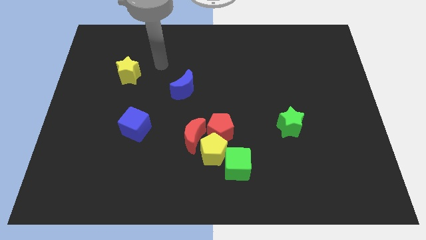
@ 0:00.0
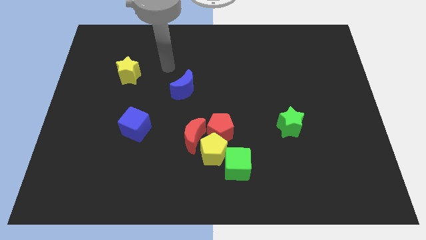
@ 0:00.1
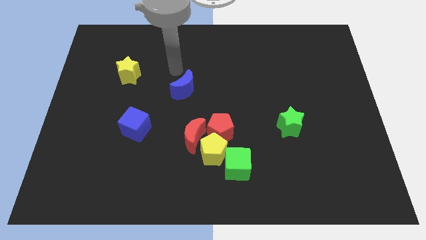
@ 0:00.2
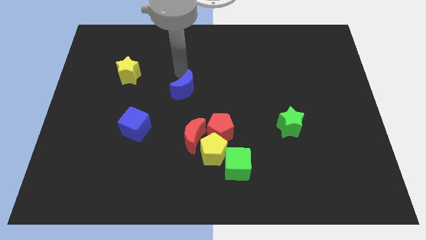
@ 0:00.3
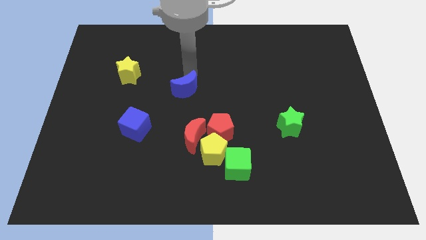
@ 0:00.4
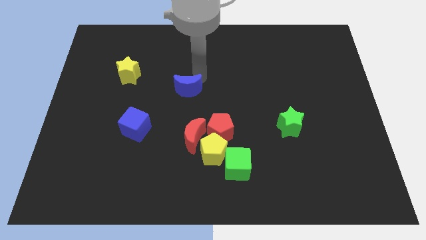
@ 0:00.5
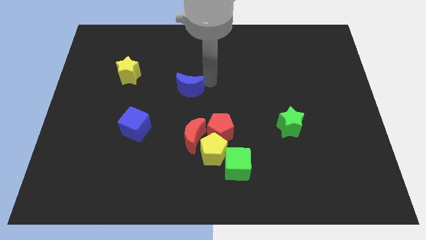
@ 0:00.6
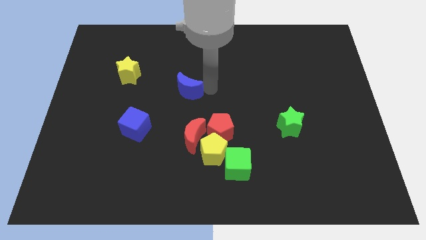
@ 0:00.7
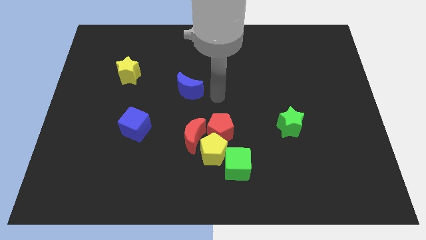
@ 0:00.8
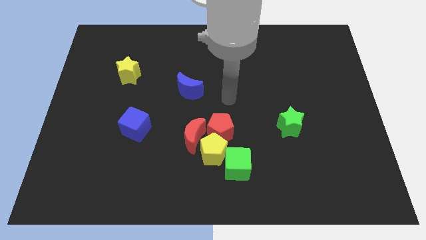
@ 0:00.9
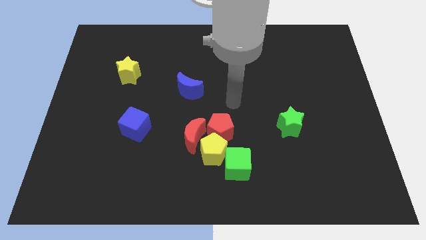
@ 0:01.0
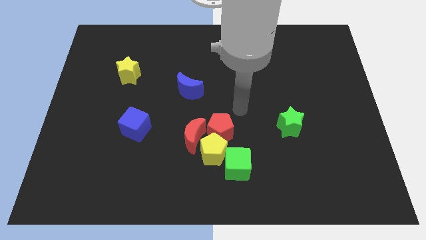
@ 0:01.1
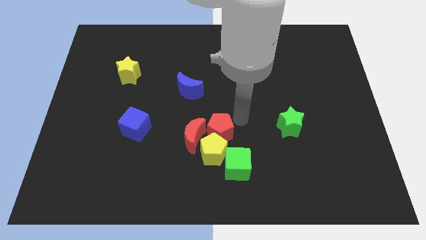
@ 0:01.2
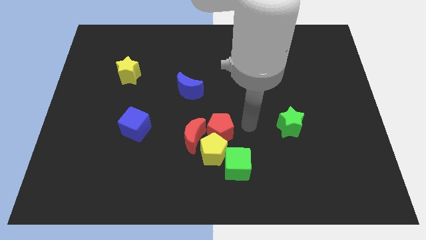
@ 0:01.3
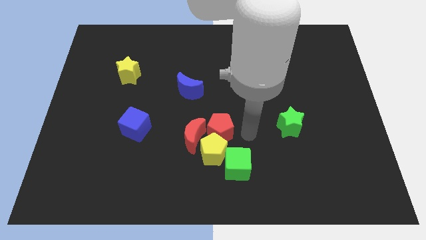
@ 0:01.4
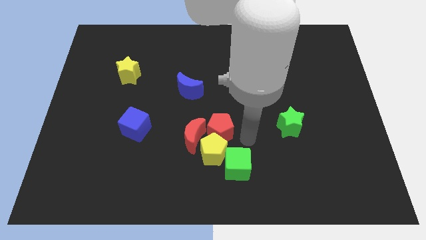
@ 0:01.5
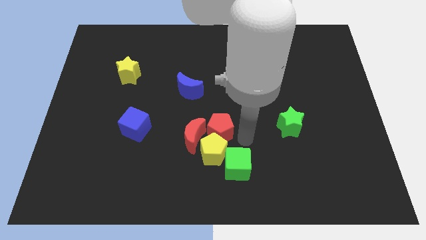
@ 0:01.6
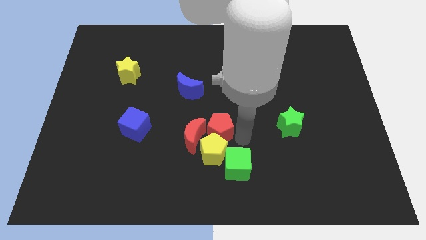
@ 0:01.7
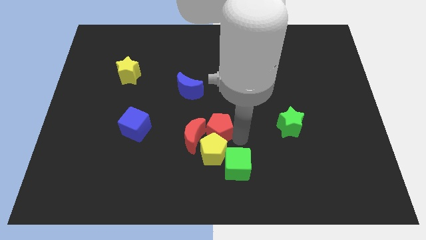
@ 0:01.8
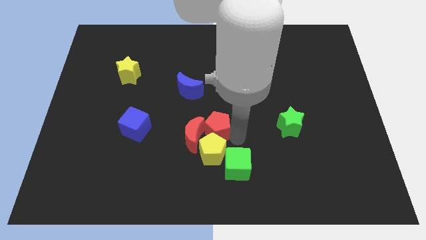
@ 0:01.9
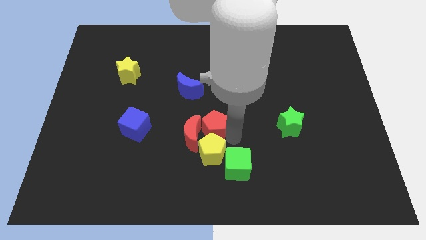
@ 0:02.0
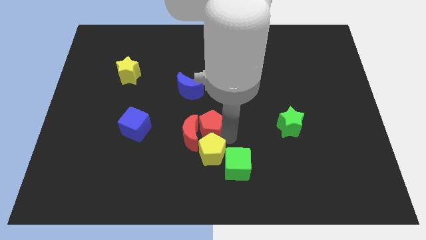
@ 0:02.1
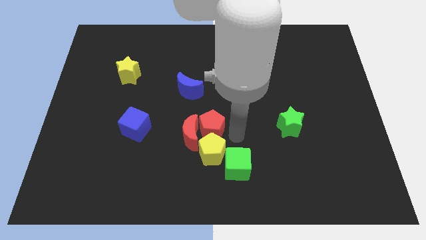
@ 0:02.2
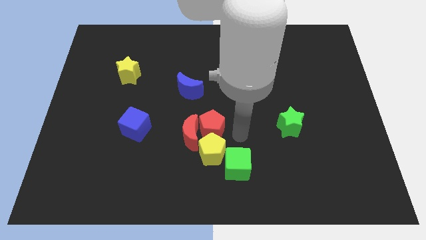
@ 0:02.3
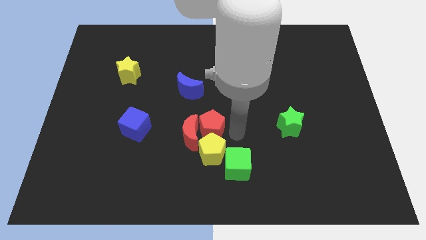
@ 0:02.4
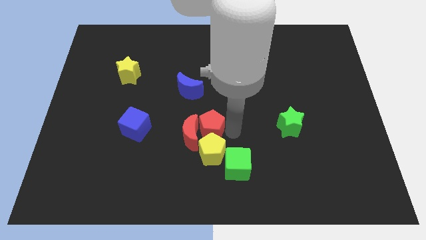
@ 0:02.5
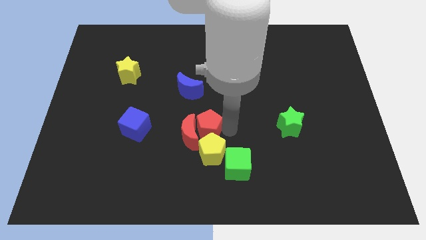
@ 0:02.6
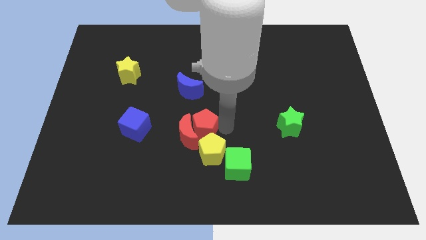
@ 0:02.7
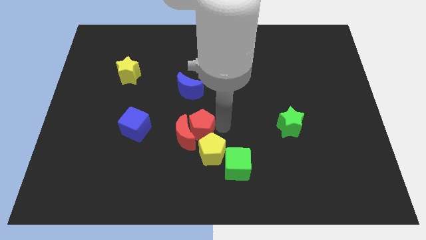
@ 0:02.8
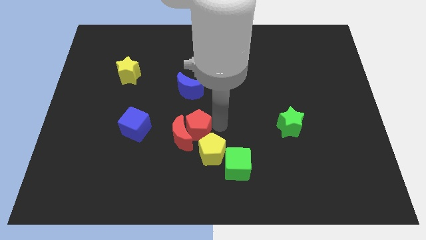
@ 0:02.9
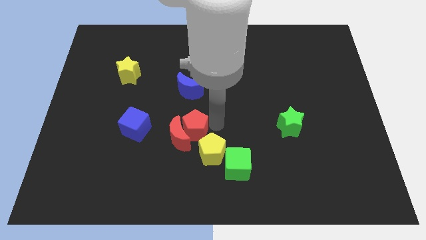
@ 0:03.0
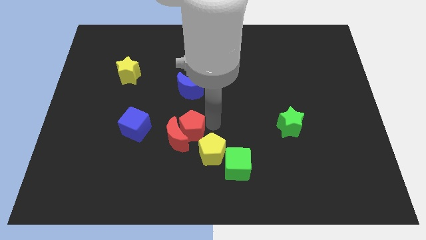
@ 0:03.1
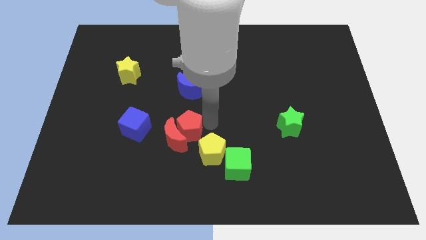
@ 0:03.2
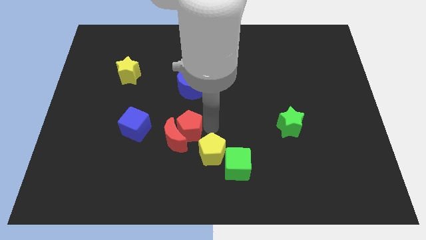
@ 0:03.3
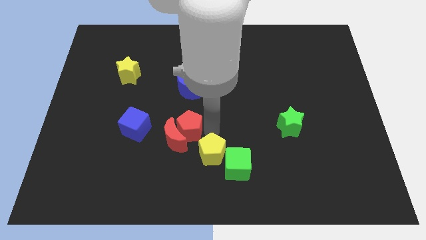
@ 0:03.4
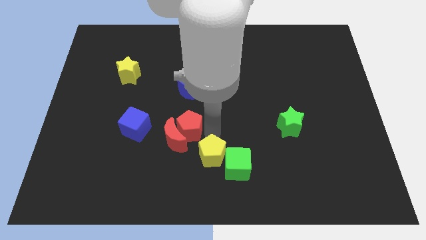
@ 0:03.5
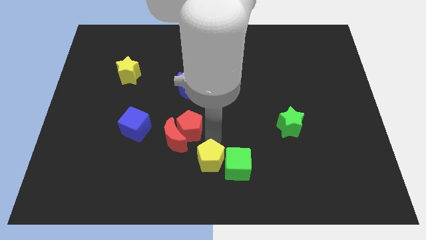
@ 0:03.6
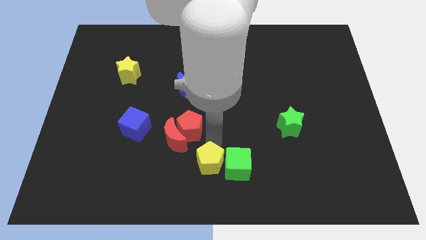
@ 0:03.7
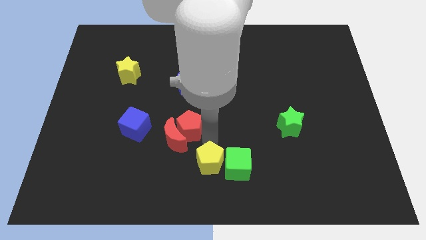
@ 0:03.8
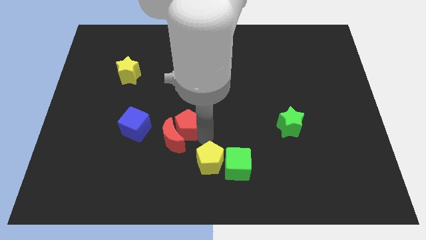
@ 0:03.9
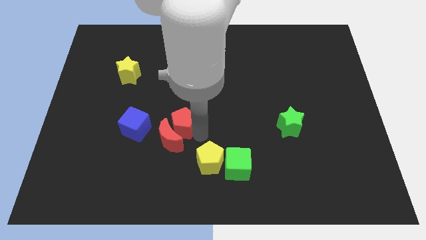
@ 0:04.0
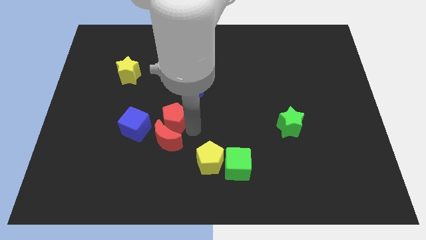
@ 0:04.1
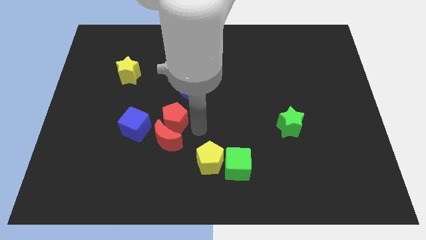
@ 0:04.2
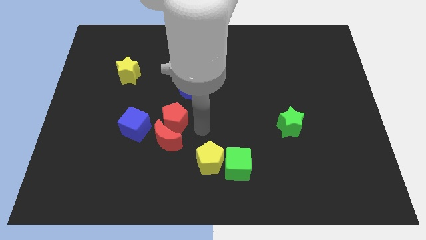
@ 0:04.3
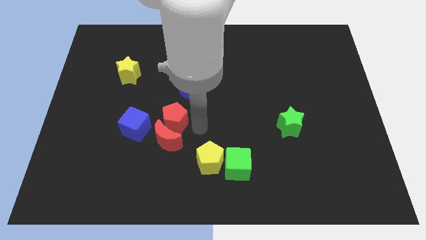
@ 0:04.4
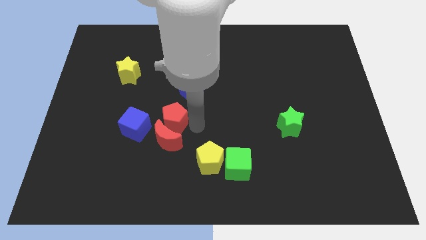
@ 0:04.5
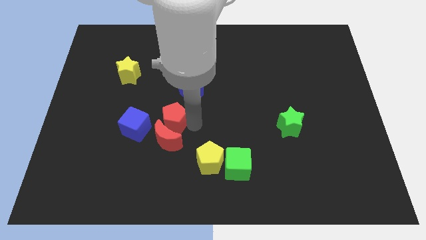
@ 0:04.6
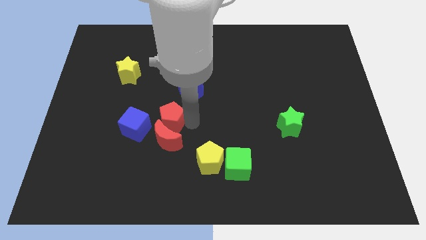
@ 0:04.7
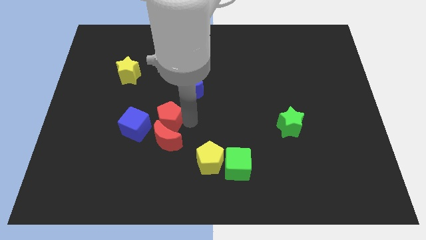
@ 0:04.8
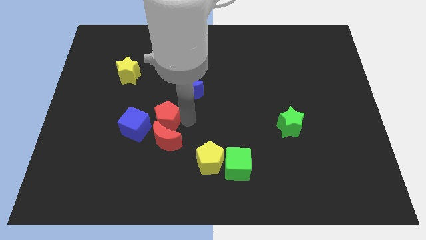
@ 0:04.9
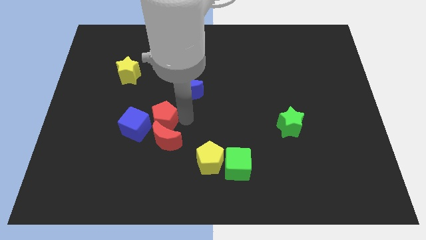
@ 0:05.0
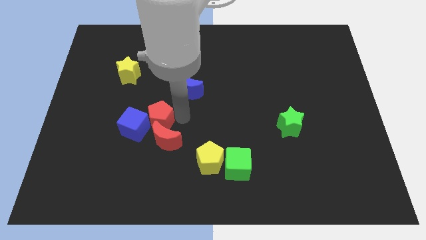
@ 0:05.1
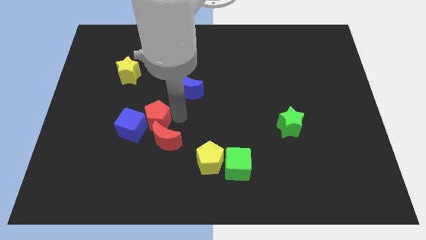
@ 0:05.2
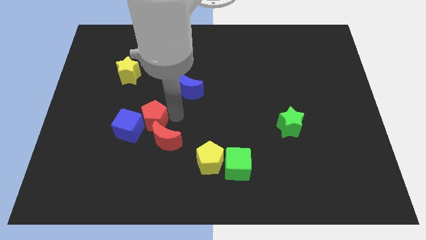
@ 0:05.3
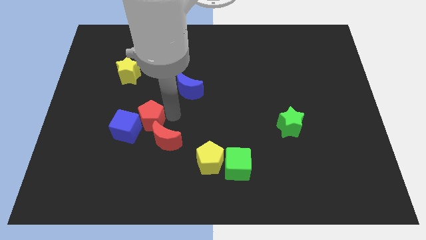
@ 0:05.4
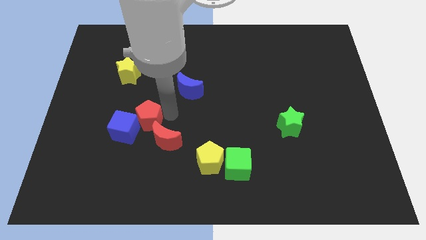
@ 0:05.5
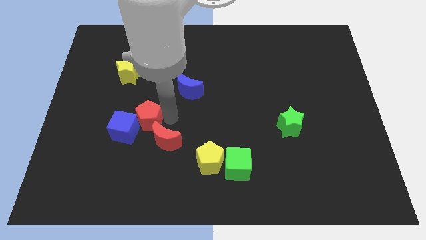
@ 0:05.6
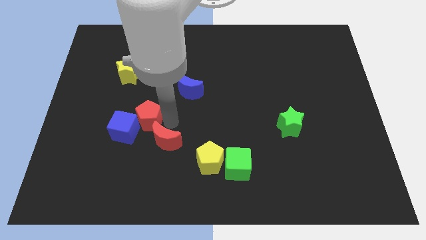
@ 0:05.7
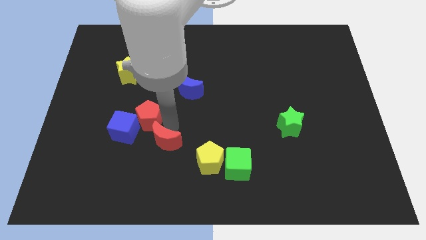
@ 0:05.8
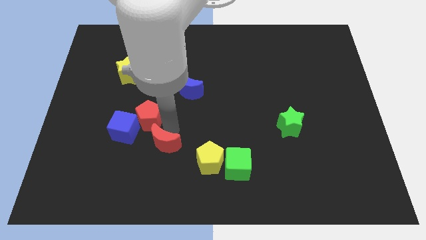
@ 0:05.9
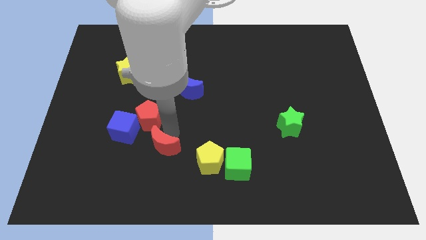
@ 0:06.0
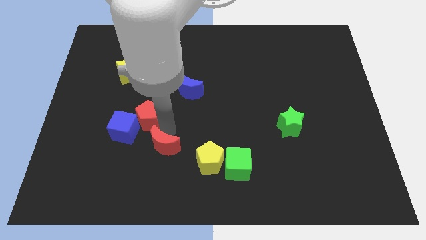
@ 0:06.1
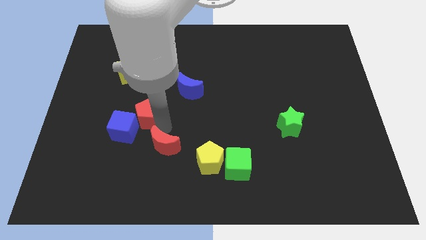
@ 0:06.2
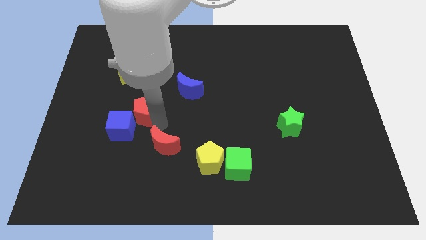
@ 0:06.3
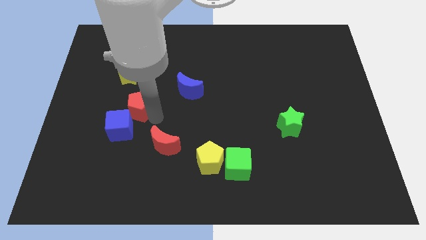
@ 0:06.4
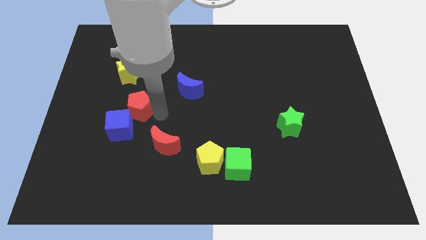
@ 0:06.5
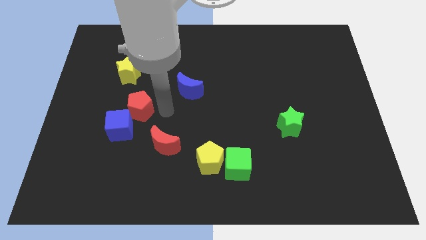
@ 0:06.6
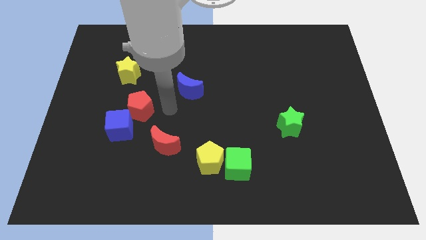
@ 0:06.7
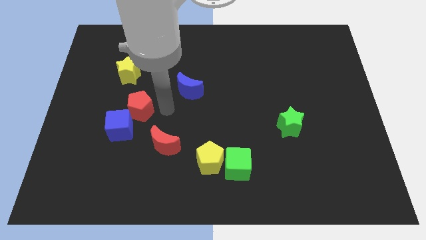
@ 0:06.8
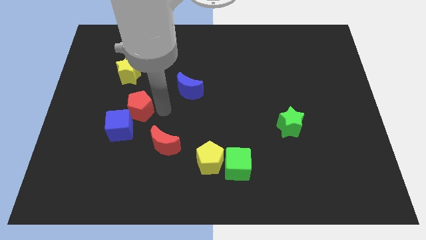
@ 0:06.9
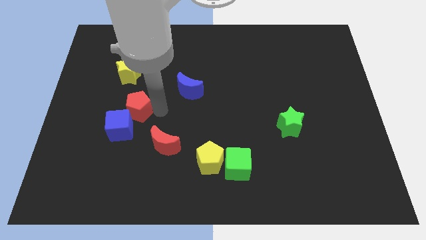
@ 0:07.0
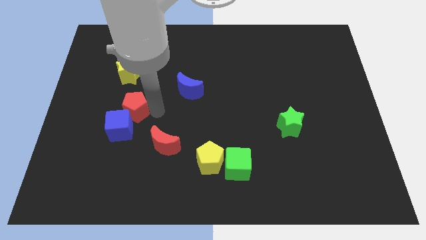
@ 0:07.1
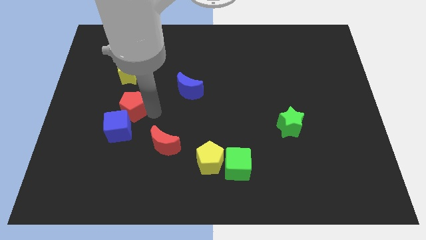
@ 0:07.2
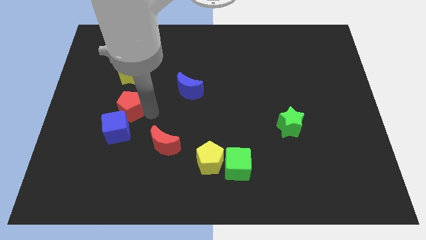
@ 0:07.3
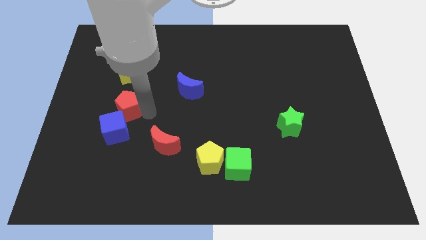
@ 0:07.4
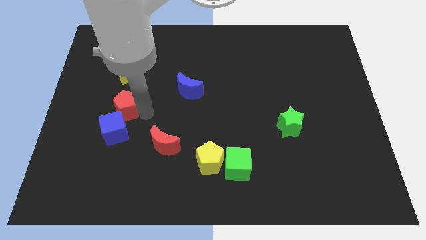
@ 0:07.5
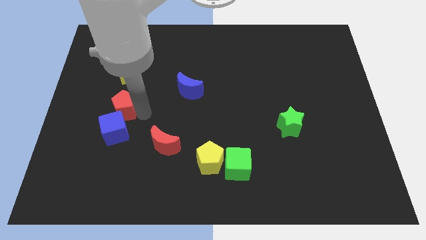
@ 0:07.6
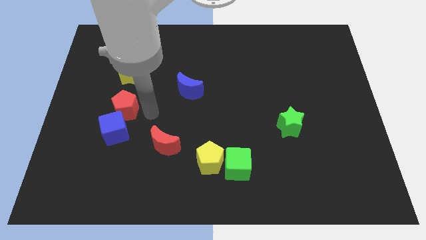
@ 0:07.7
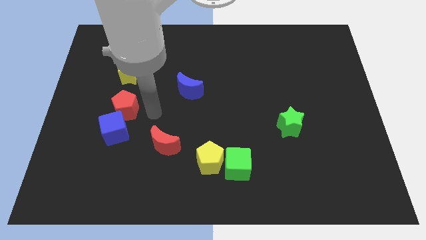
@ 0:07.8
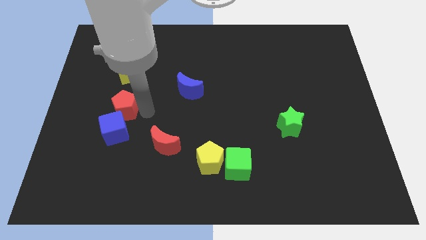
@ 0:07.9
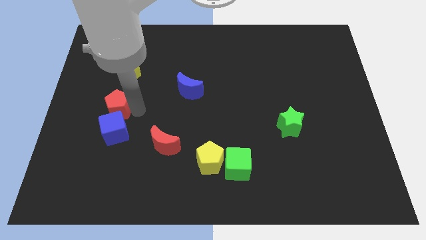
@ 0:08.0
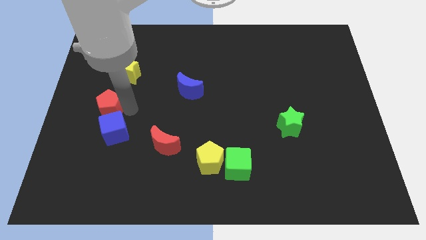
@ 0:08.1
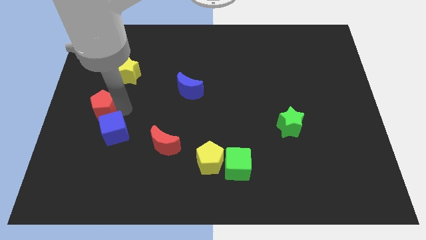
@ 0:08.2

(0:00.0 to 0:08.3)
move the red pentagon to the center left
